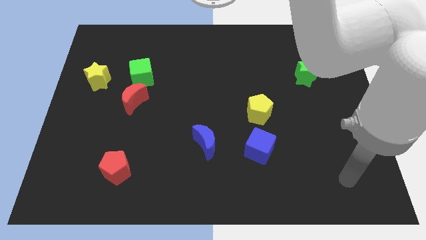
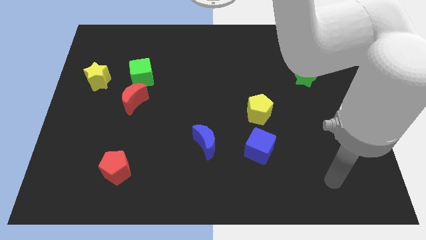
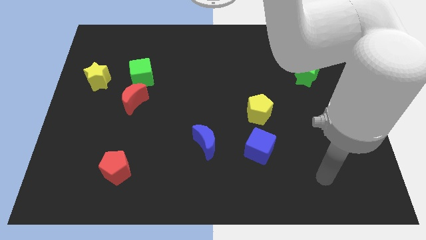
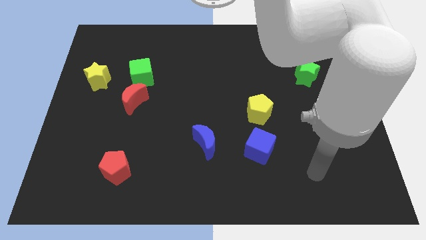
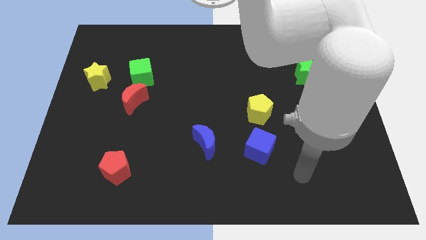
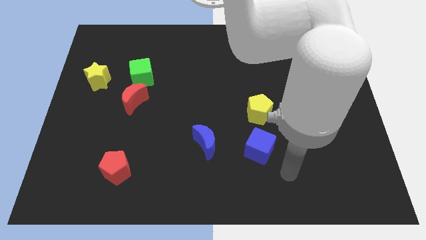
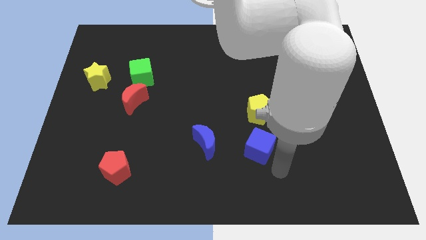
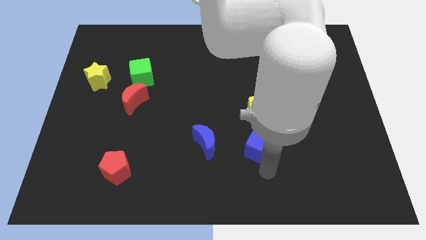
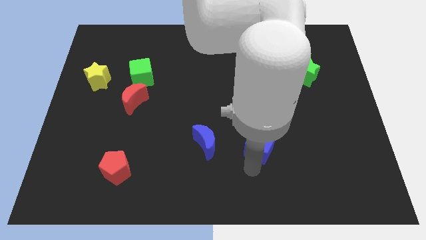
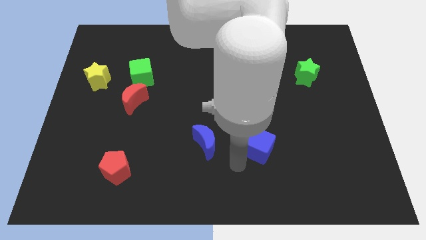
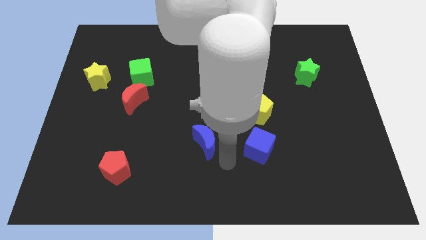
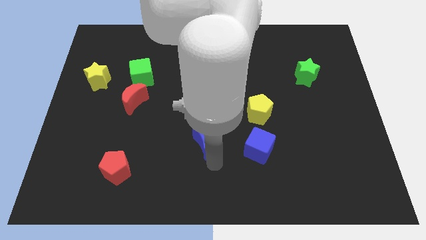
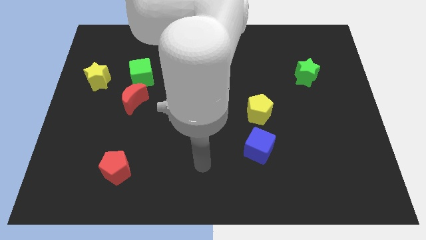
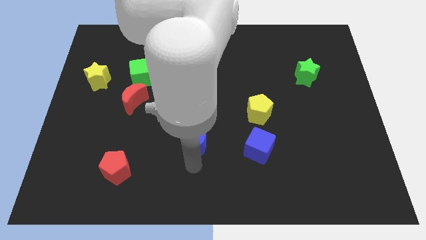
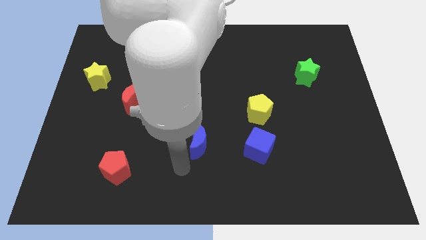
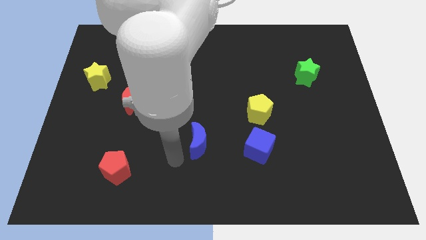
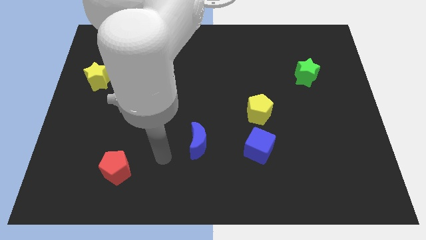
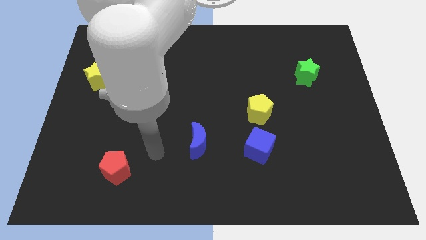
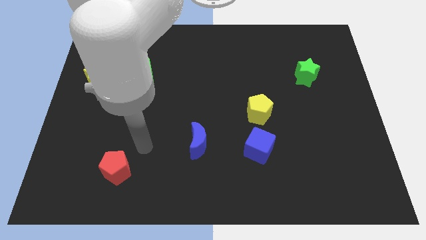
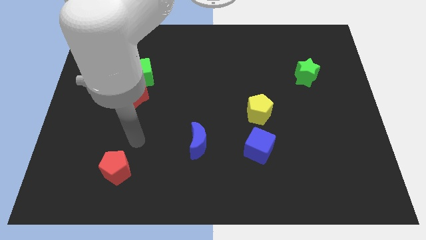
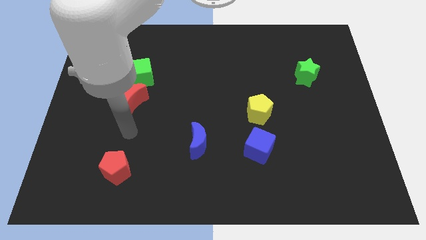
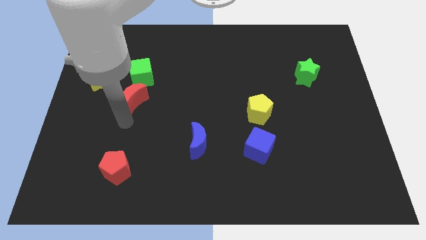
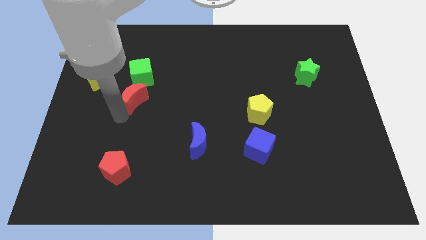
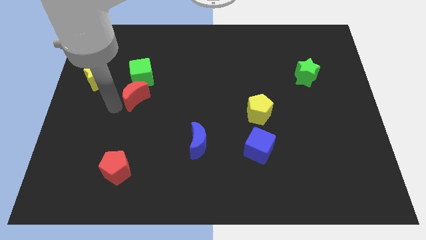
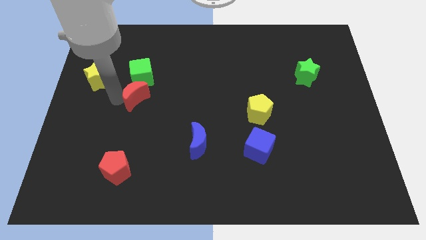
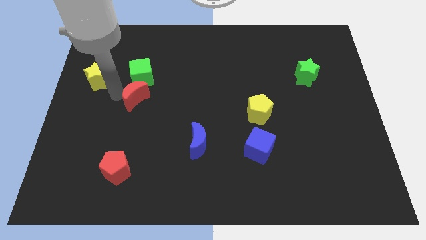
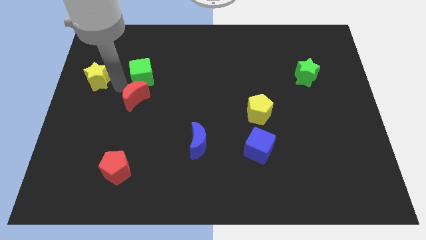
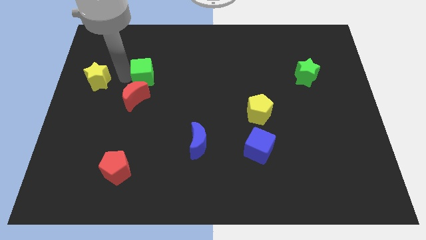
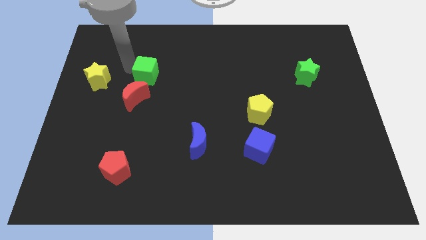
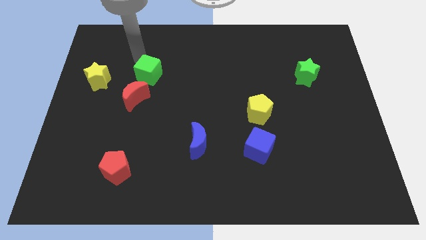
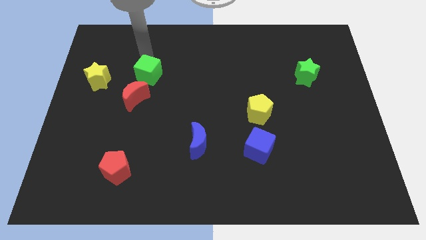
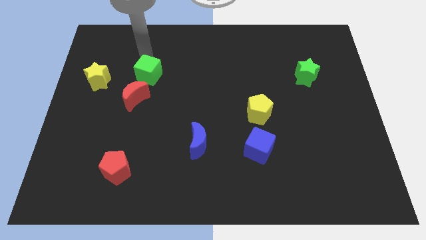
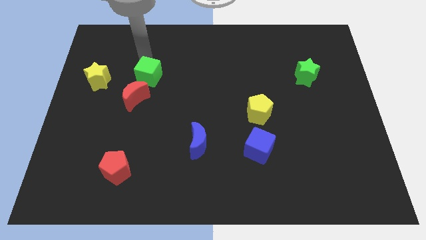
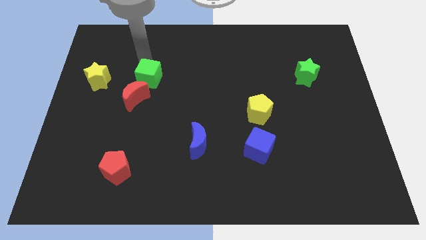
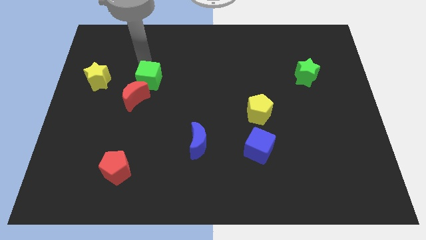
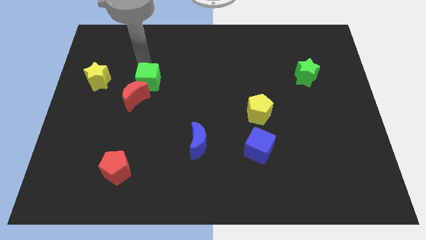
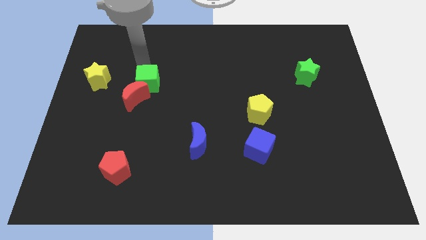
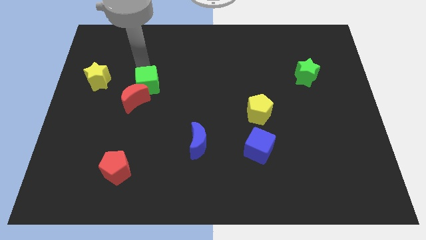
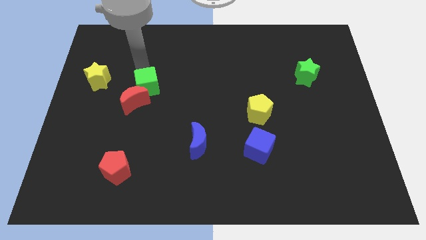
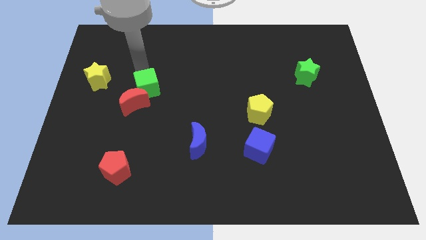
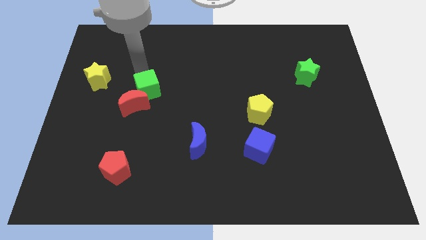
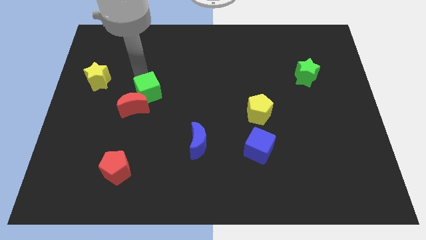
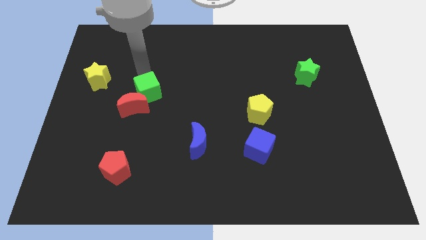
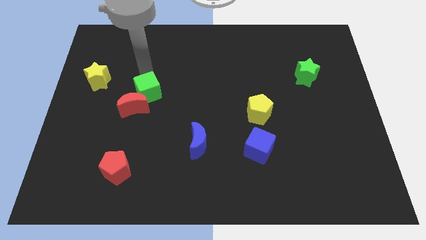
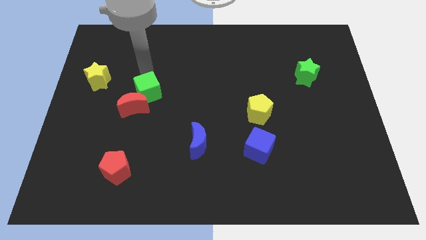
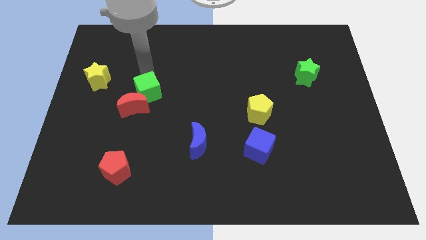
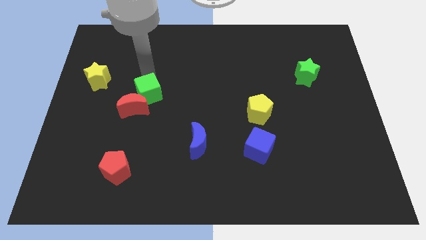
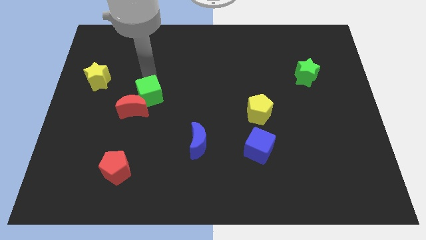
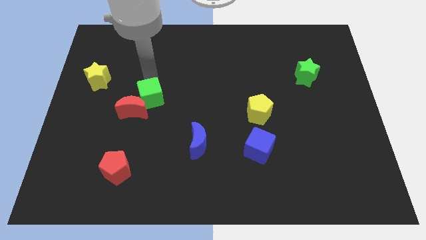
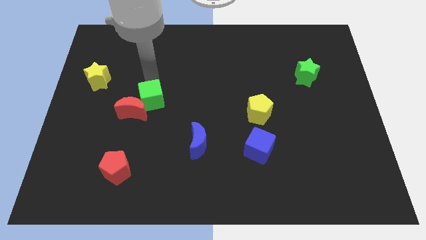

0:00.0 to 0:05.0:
push the green cube slightly down

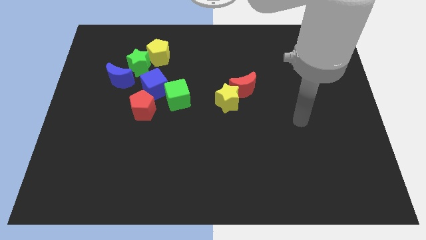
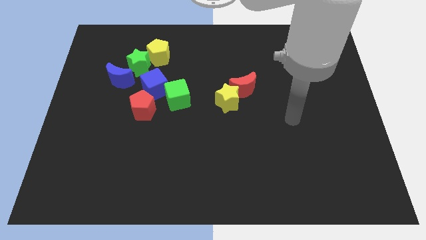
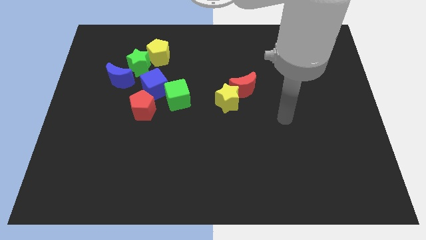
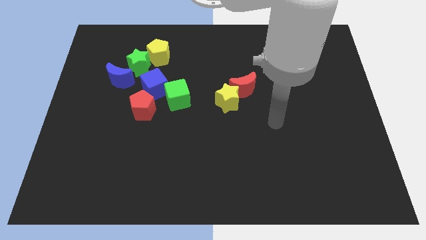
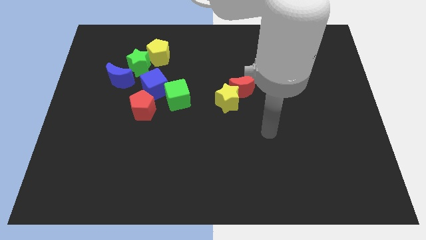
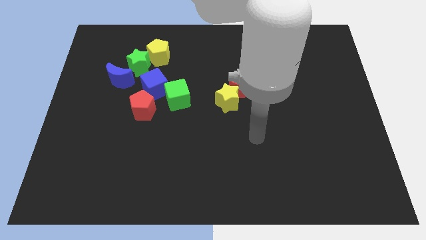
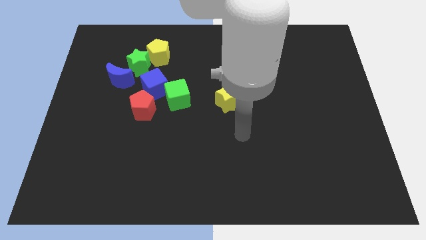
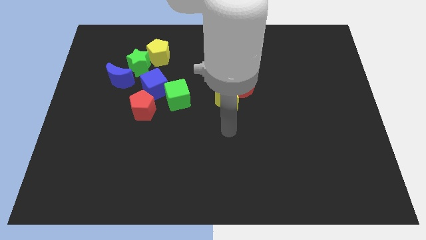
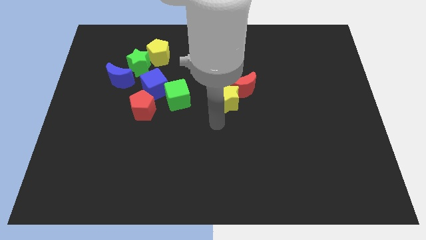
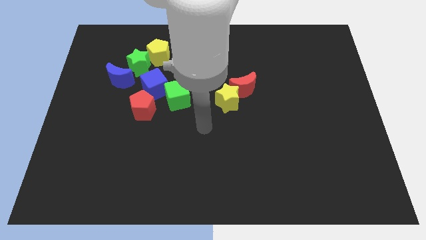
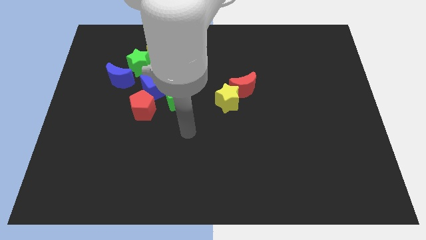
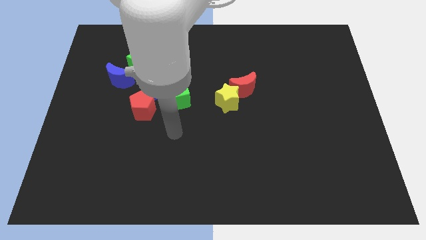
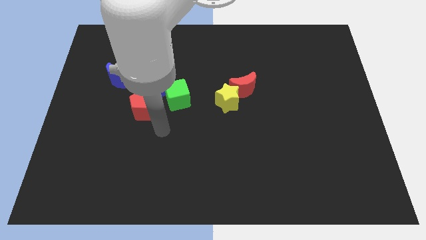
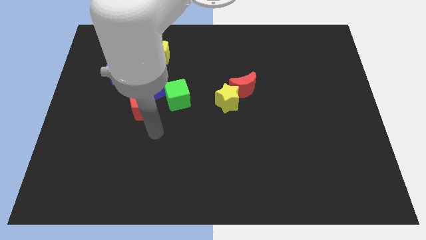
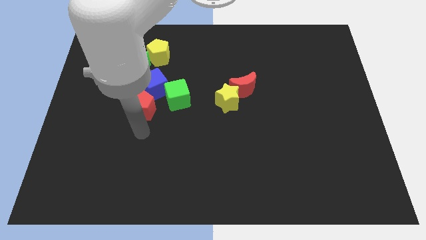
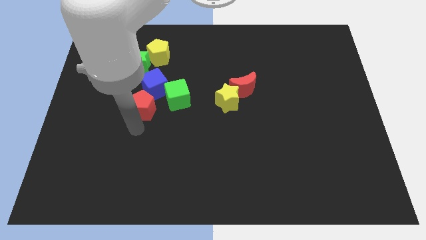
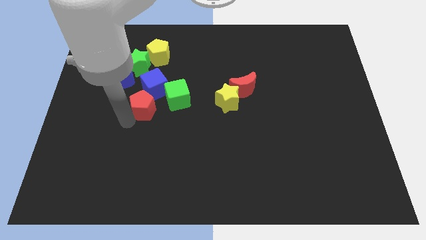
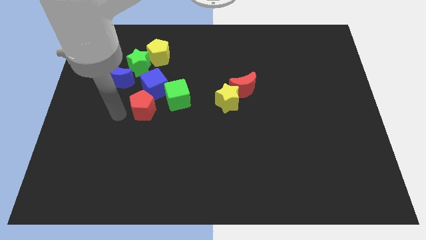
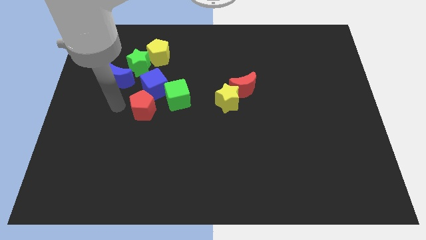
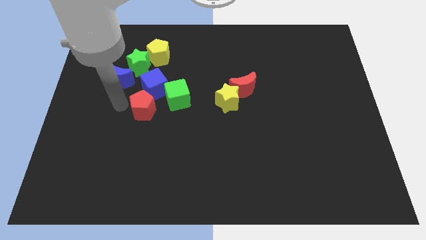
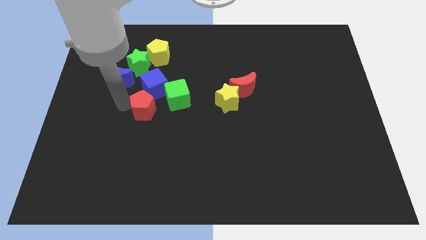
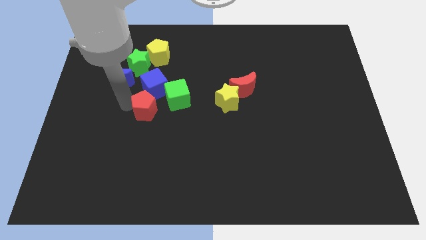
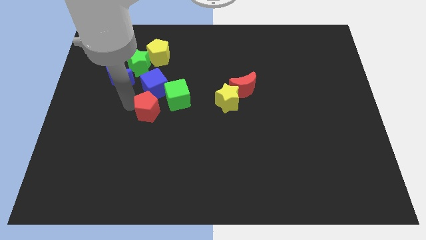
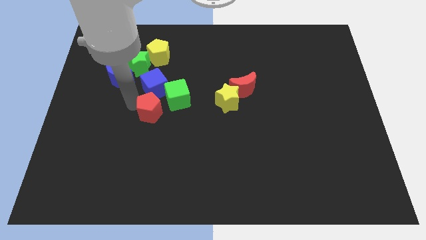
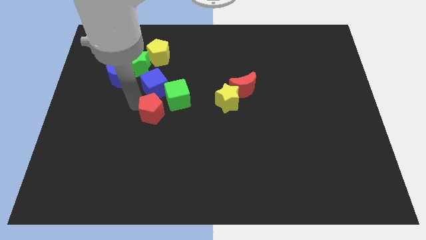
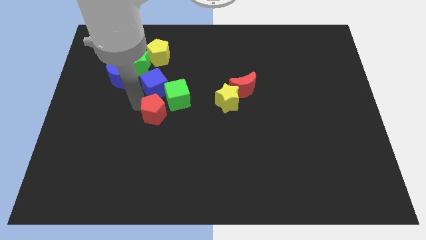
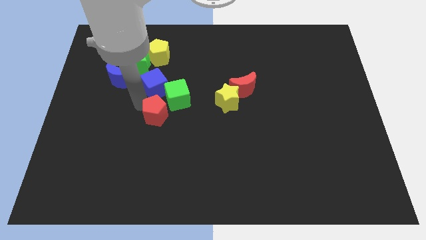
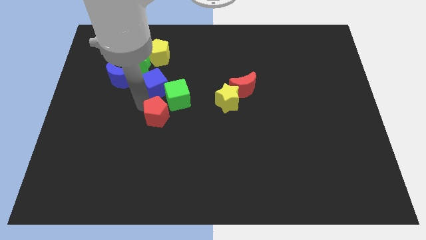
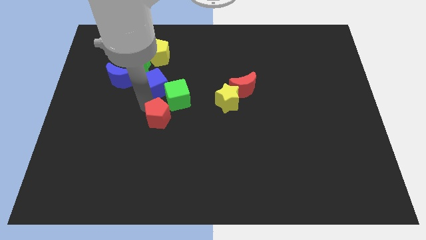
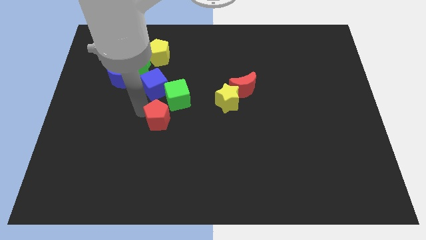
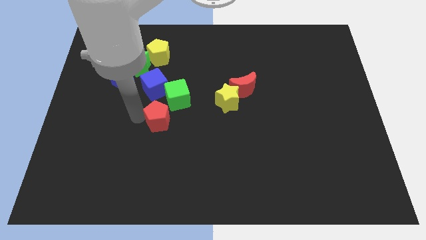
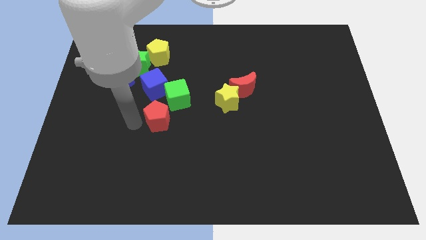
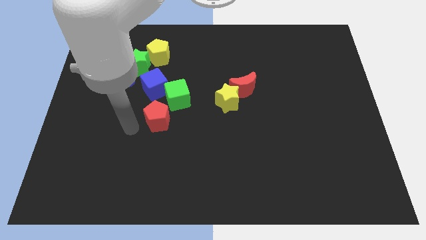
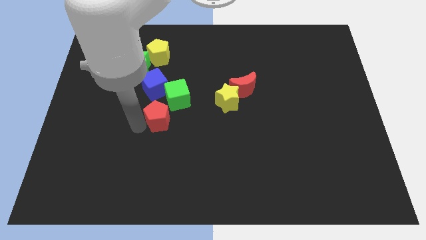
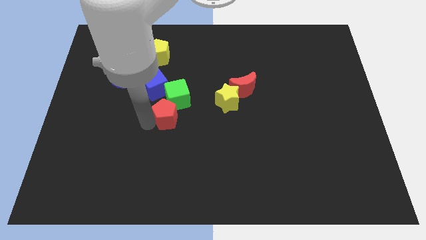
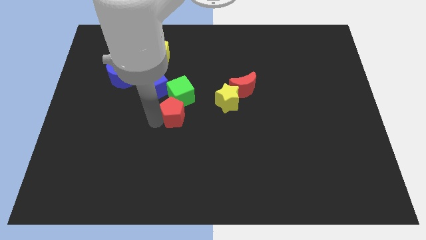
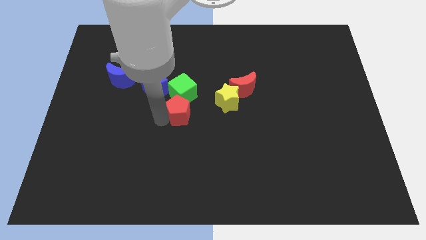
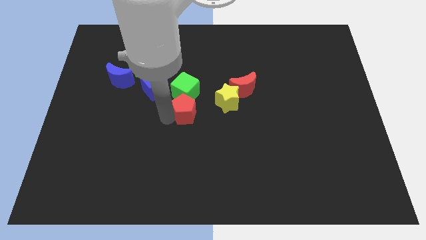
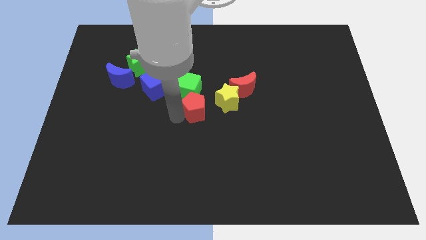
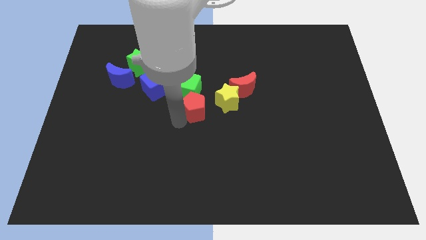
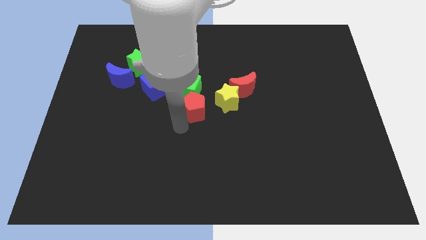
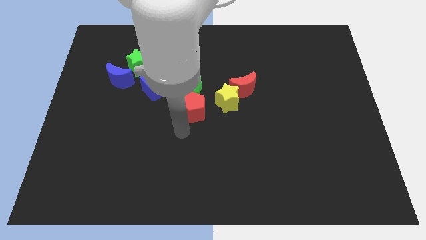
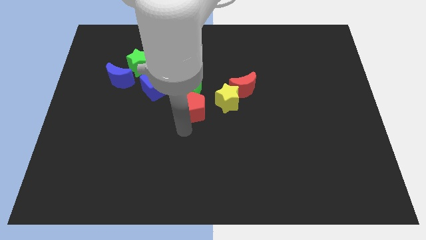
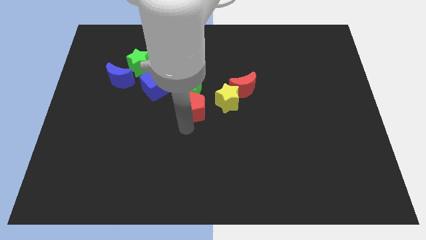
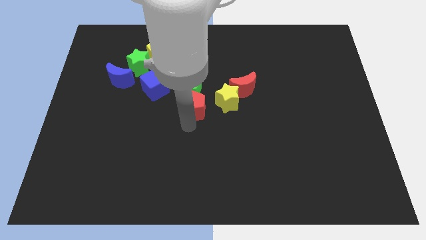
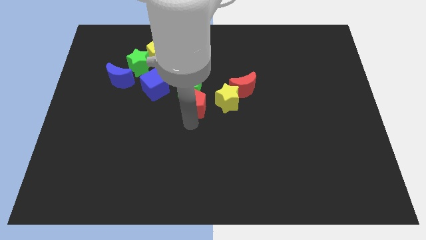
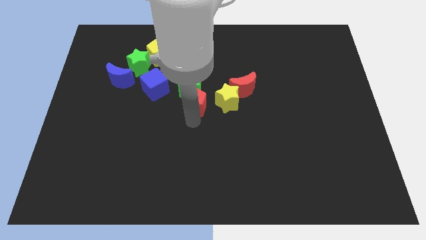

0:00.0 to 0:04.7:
push the red pentagon up and then to the right a little bit
